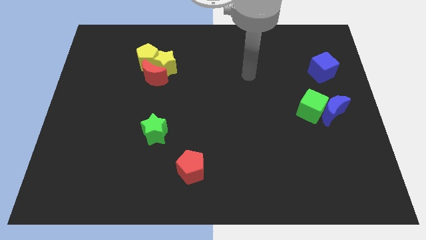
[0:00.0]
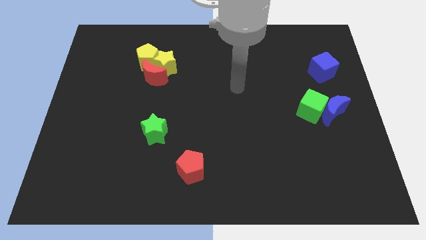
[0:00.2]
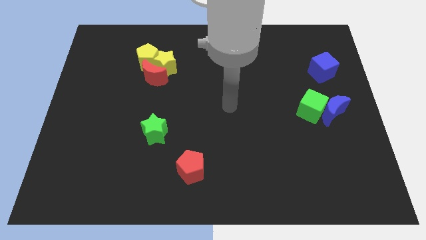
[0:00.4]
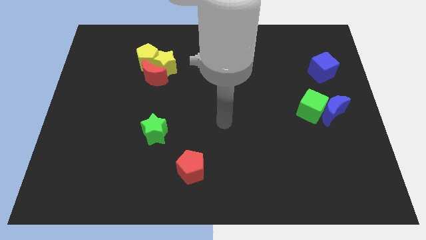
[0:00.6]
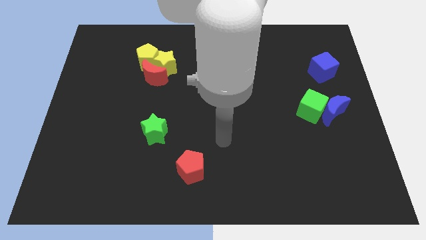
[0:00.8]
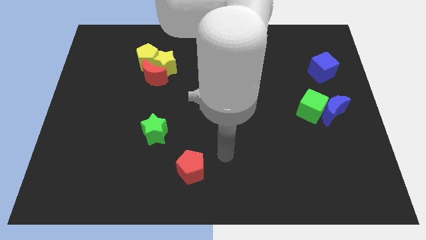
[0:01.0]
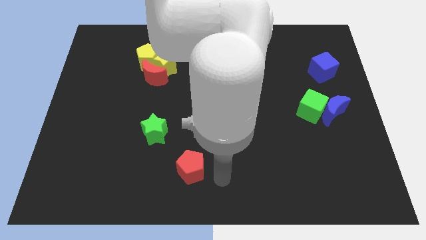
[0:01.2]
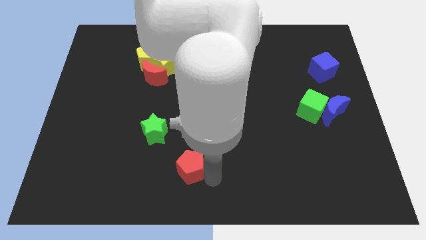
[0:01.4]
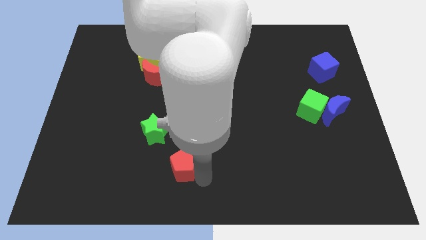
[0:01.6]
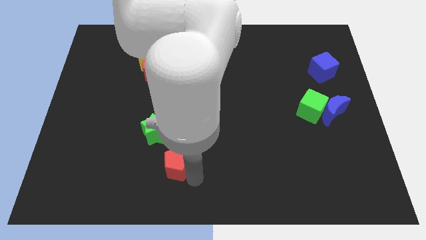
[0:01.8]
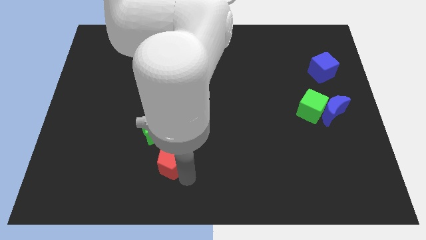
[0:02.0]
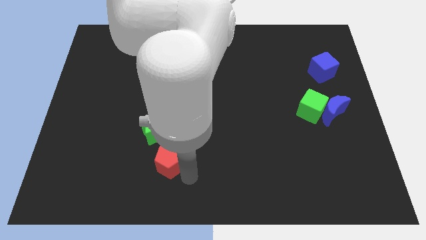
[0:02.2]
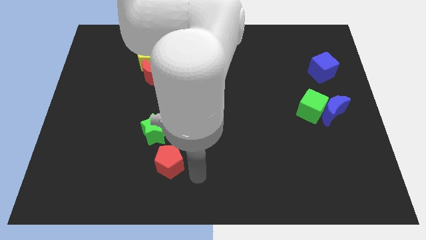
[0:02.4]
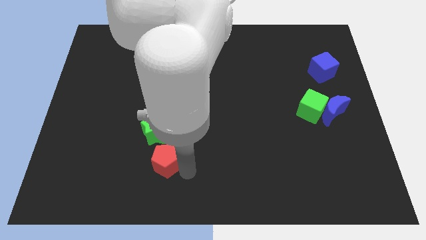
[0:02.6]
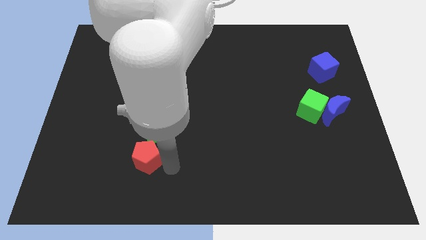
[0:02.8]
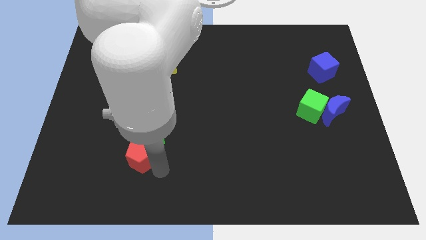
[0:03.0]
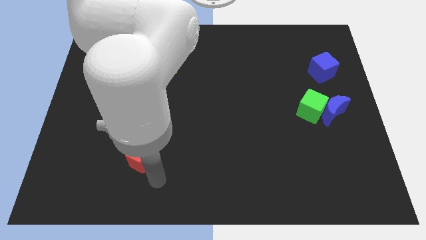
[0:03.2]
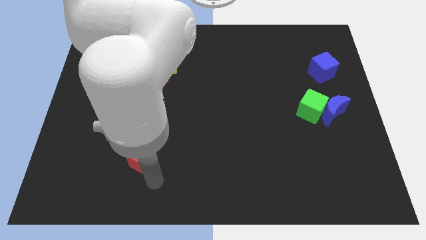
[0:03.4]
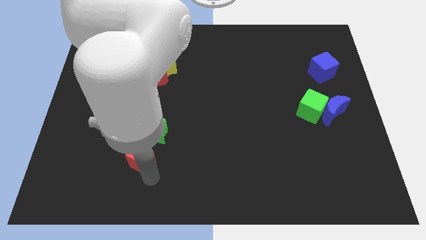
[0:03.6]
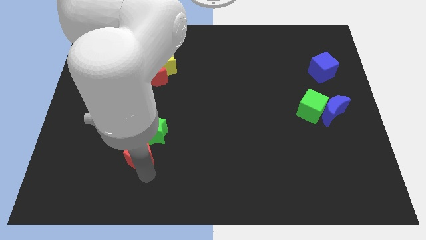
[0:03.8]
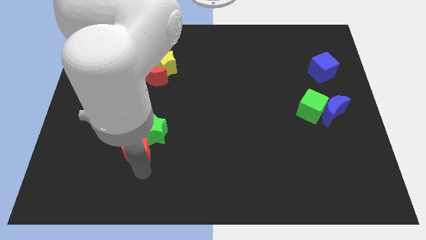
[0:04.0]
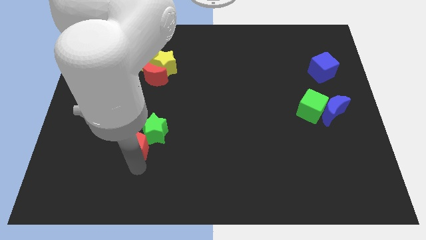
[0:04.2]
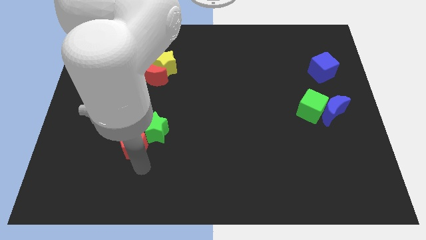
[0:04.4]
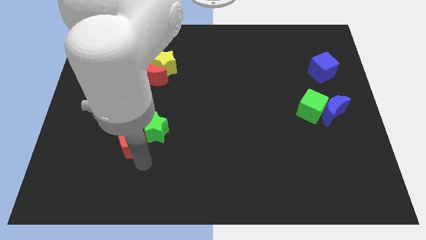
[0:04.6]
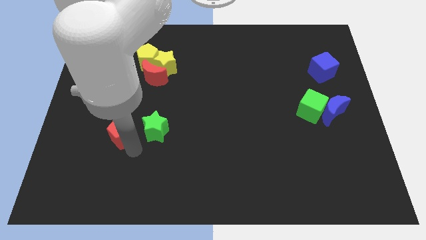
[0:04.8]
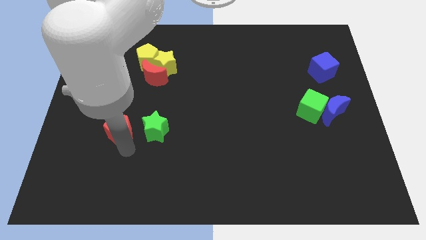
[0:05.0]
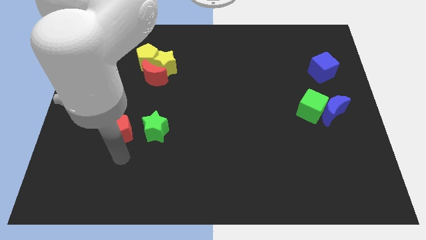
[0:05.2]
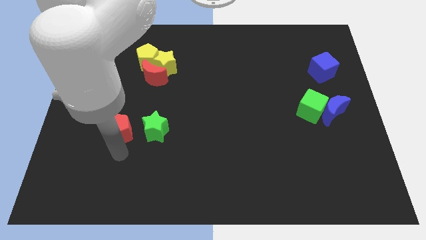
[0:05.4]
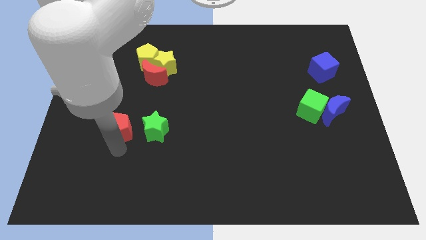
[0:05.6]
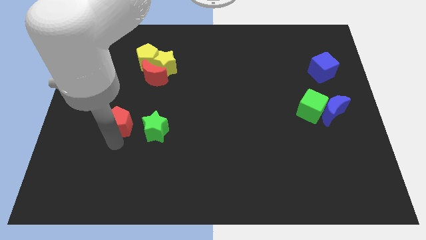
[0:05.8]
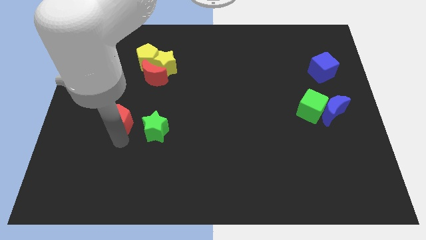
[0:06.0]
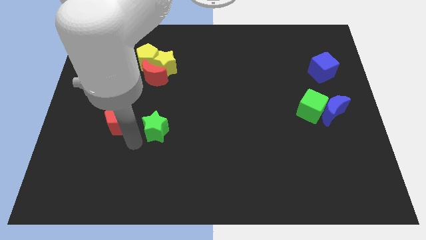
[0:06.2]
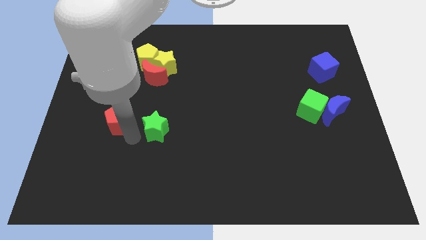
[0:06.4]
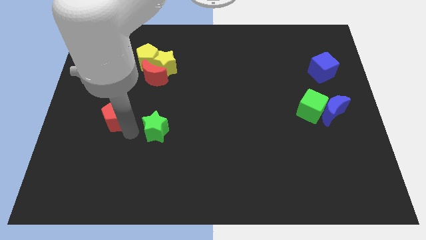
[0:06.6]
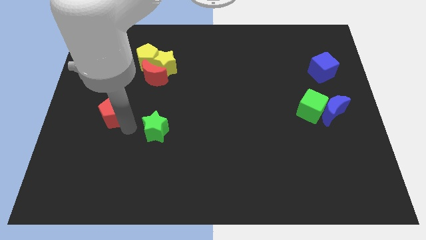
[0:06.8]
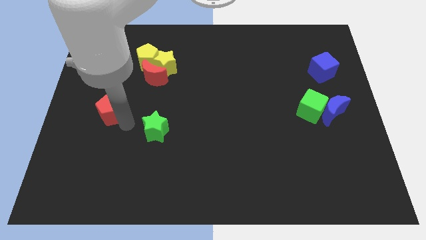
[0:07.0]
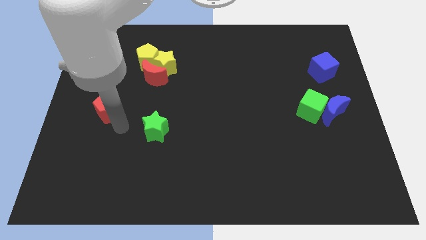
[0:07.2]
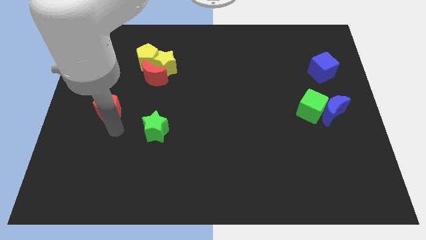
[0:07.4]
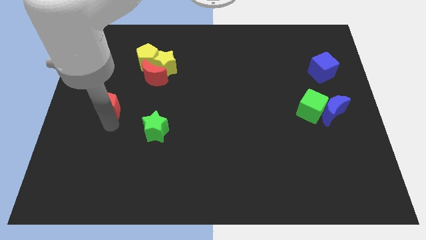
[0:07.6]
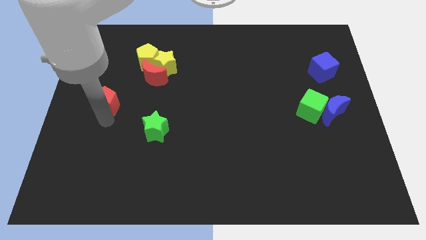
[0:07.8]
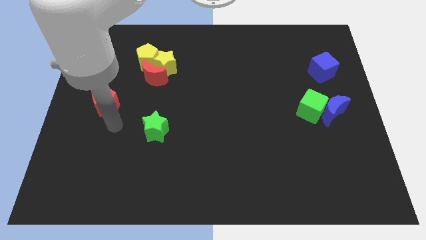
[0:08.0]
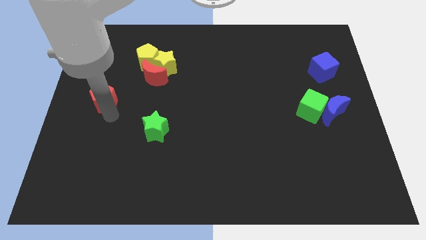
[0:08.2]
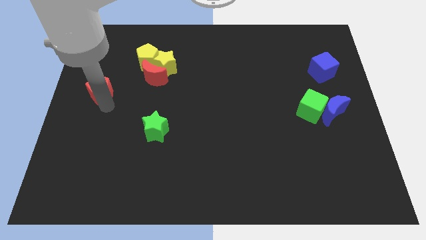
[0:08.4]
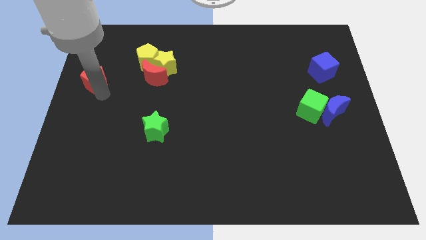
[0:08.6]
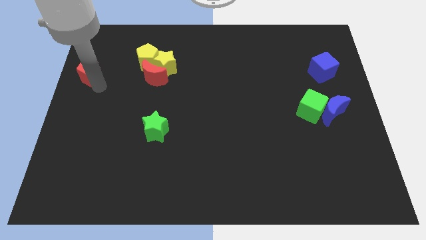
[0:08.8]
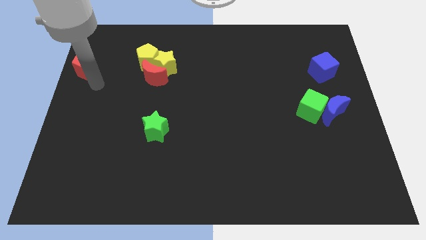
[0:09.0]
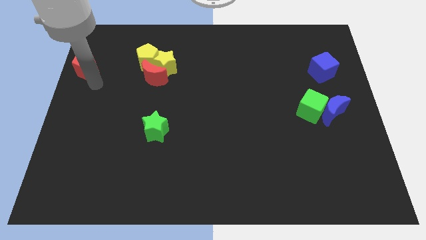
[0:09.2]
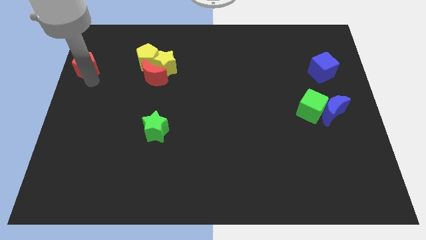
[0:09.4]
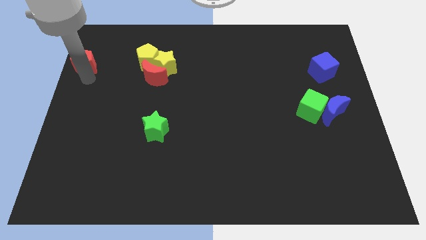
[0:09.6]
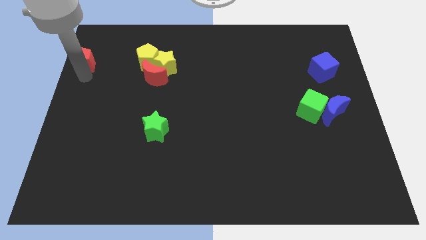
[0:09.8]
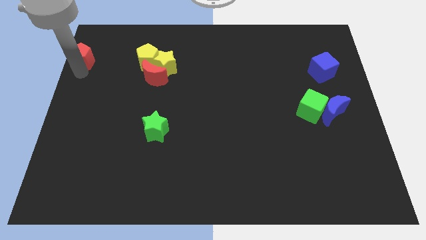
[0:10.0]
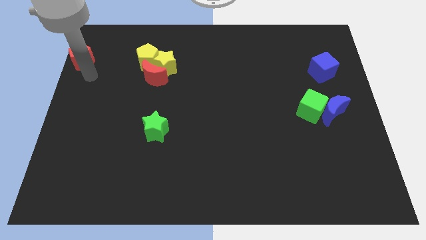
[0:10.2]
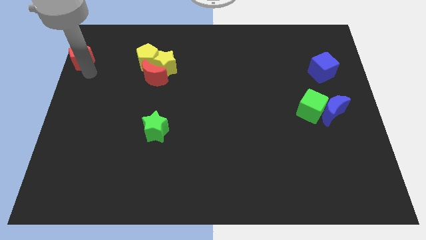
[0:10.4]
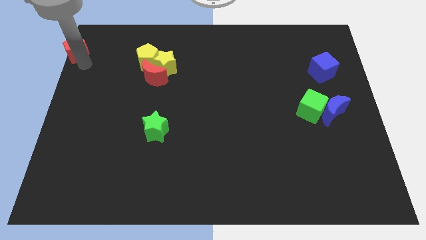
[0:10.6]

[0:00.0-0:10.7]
push the red pentagon to the top left corner

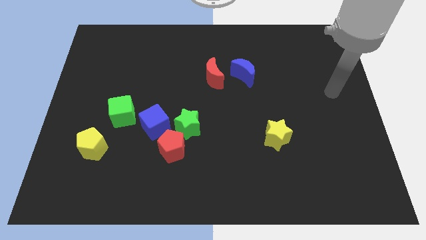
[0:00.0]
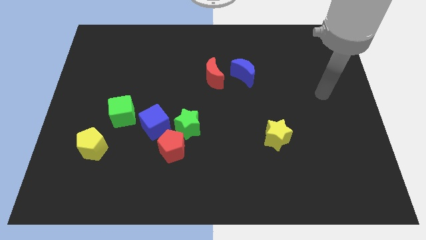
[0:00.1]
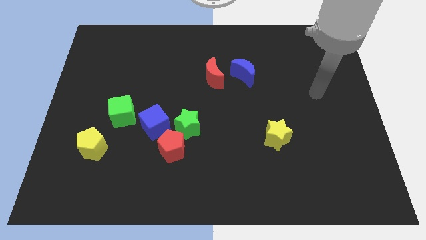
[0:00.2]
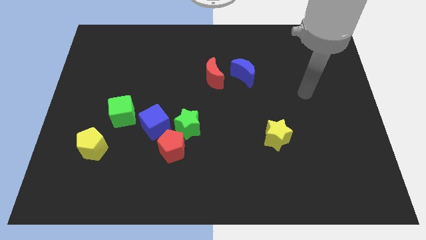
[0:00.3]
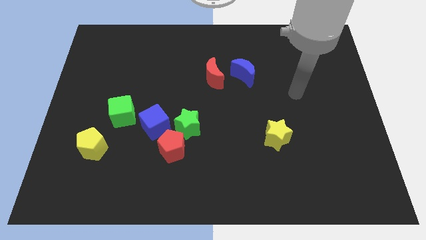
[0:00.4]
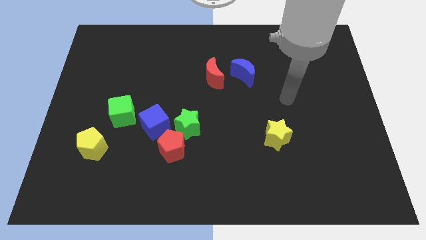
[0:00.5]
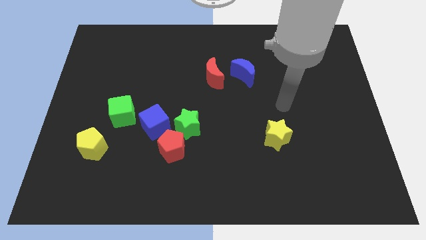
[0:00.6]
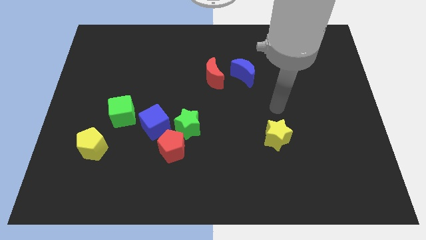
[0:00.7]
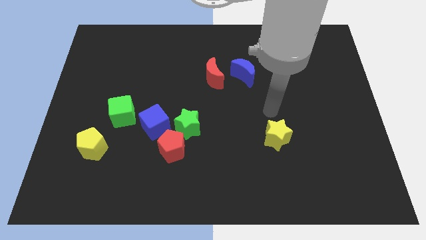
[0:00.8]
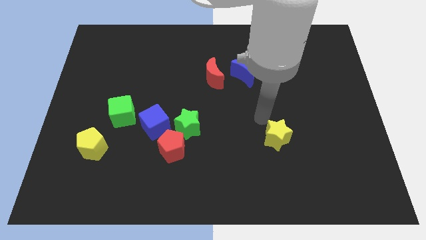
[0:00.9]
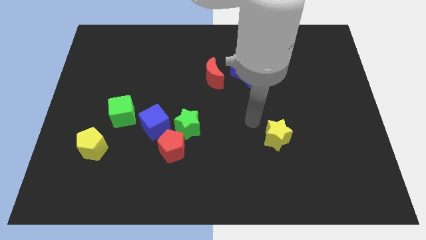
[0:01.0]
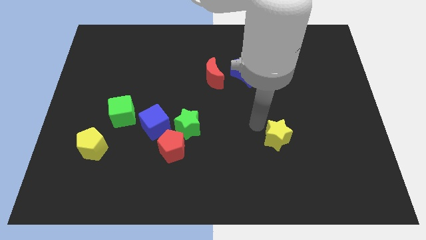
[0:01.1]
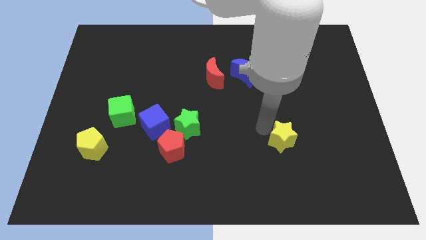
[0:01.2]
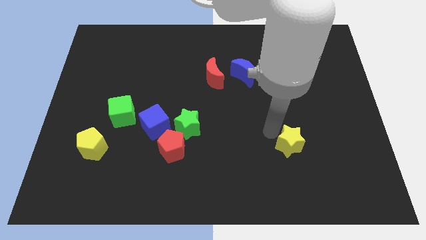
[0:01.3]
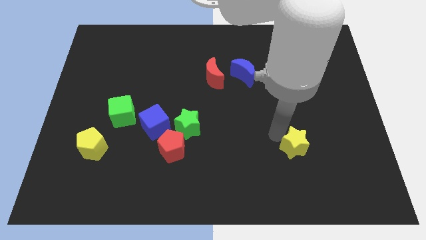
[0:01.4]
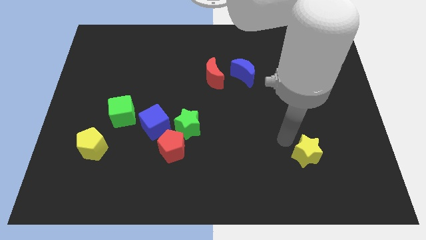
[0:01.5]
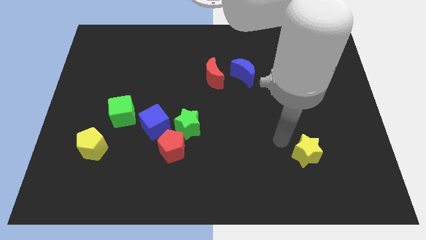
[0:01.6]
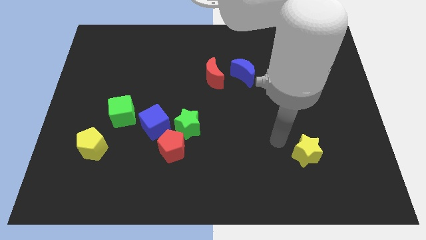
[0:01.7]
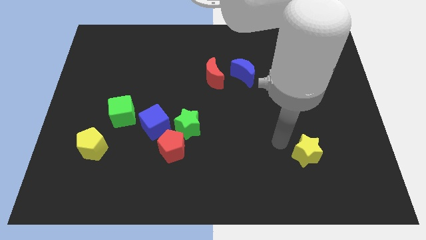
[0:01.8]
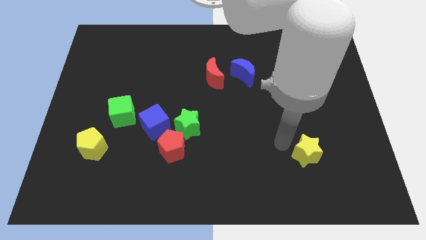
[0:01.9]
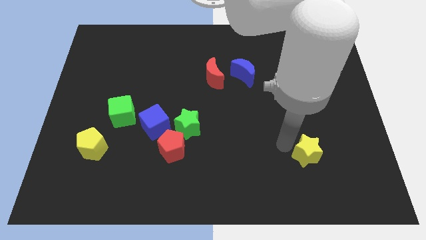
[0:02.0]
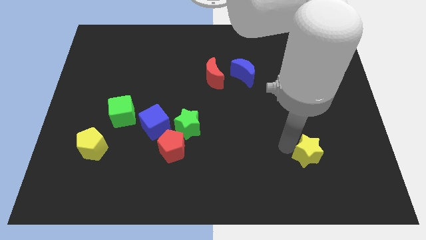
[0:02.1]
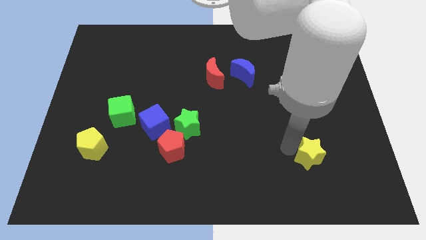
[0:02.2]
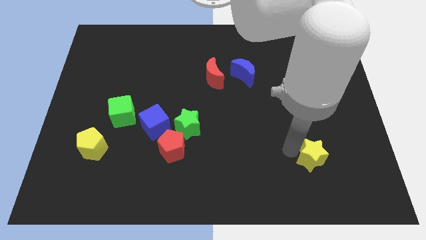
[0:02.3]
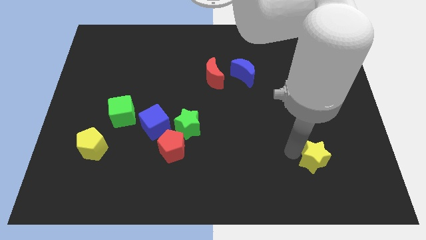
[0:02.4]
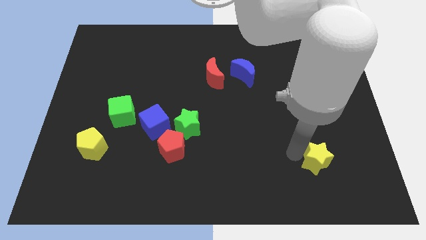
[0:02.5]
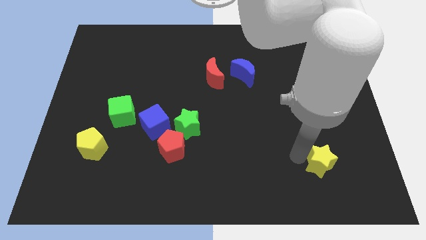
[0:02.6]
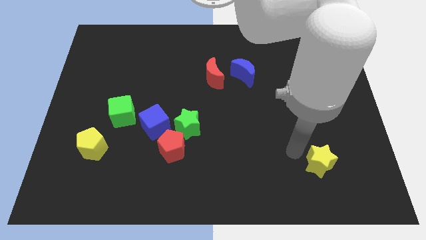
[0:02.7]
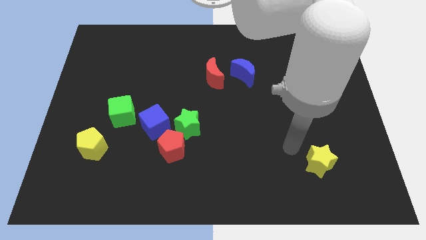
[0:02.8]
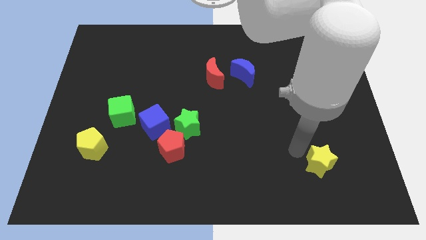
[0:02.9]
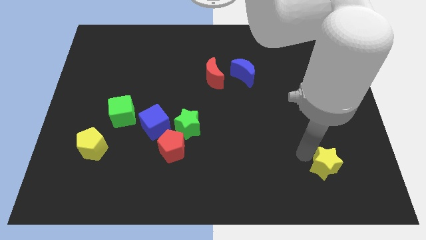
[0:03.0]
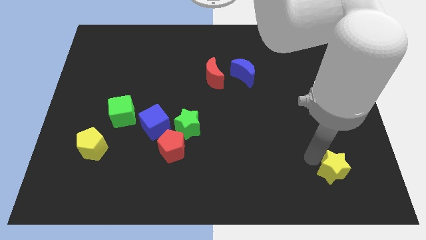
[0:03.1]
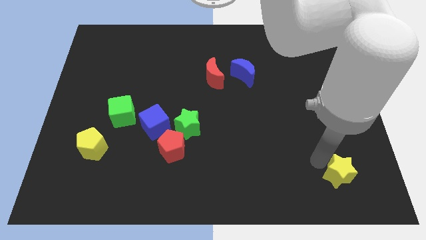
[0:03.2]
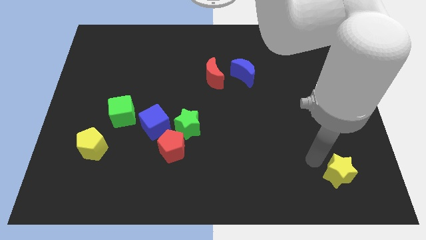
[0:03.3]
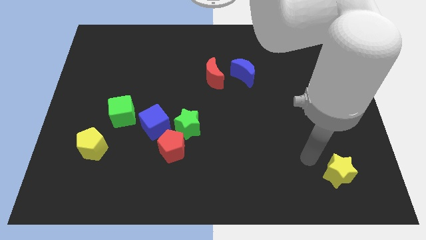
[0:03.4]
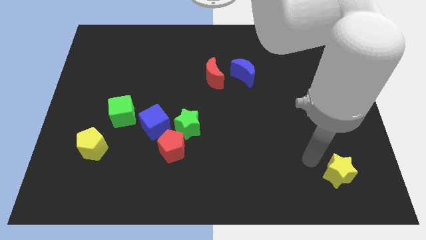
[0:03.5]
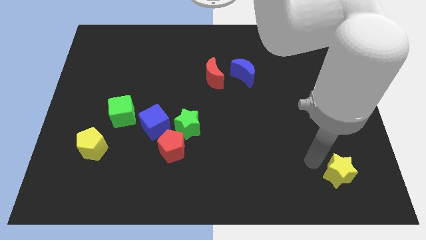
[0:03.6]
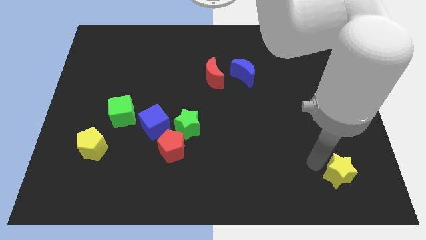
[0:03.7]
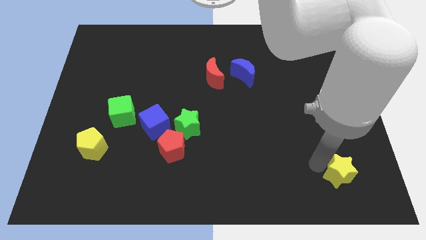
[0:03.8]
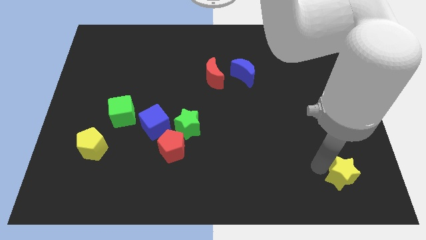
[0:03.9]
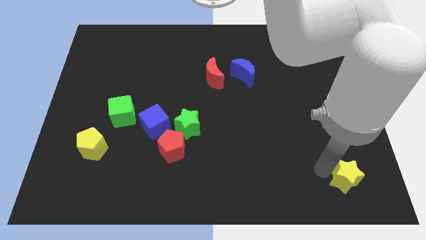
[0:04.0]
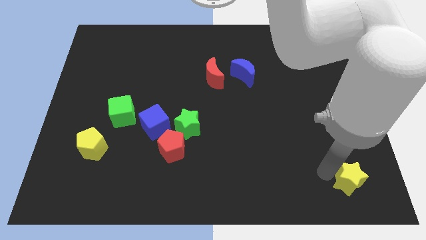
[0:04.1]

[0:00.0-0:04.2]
push the yellow star to the bottom right of the board
